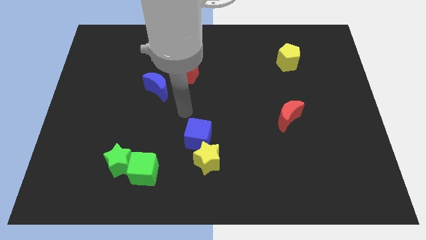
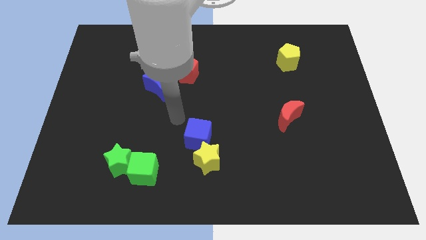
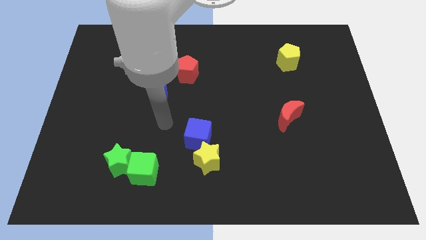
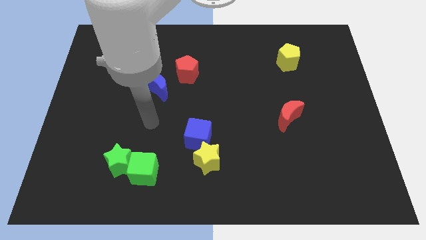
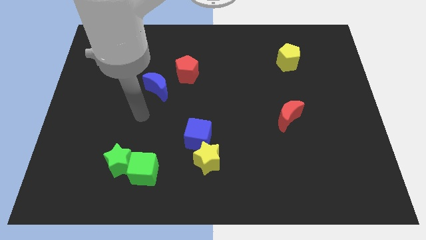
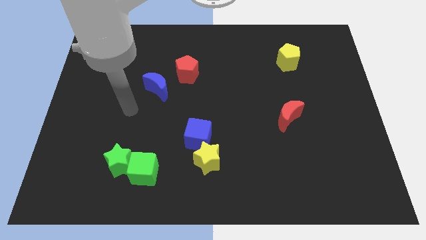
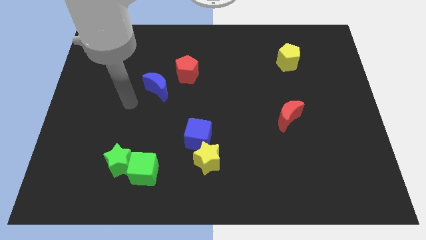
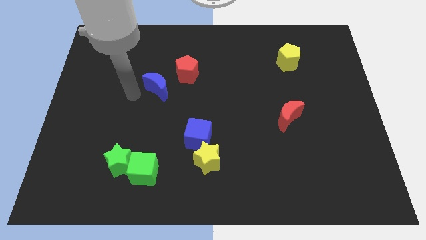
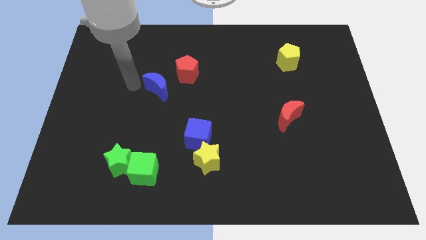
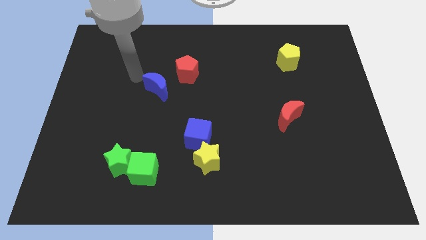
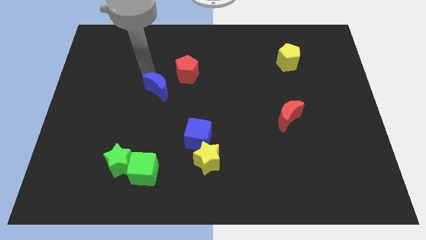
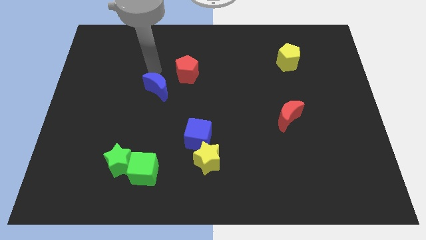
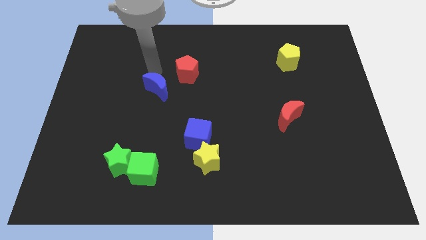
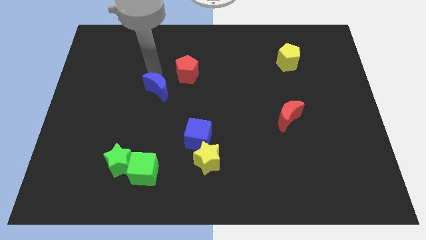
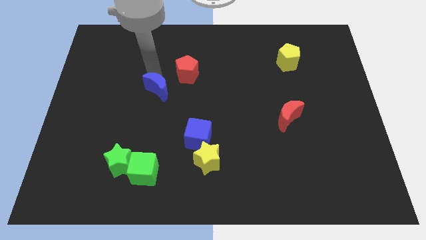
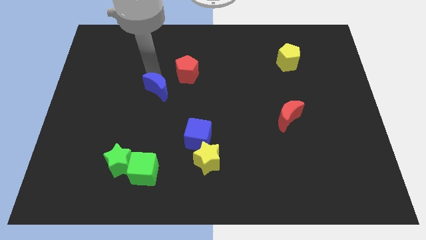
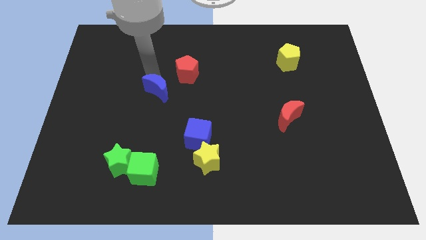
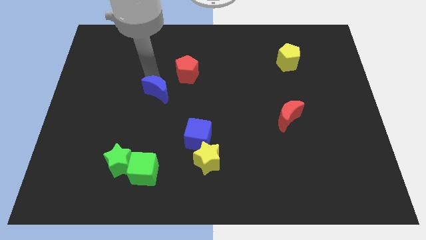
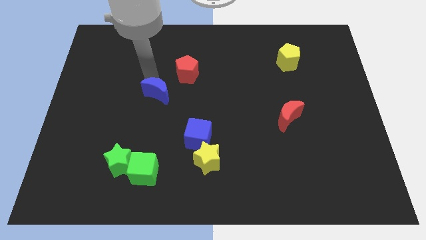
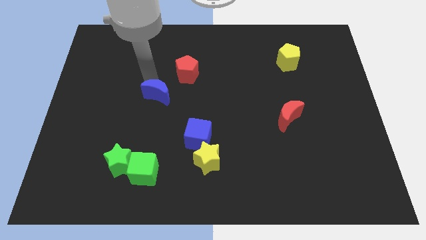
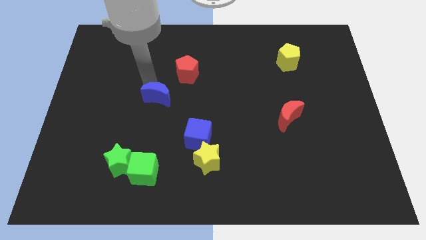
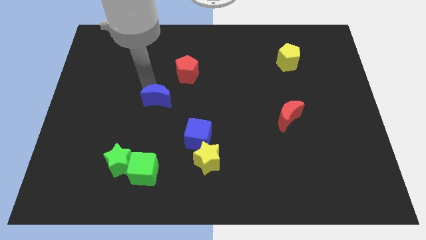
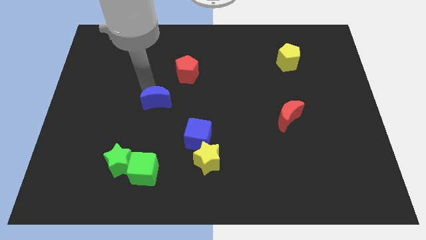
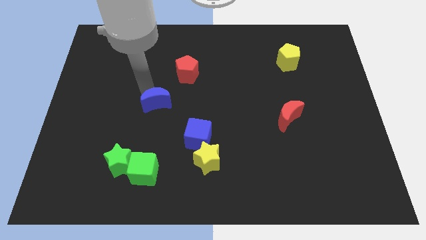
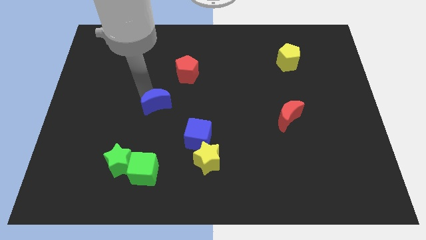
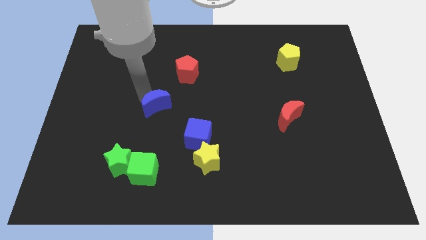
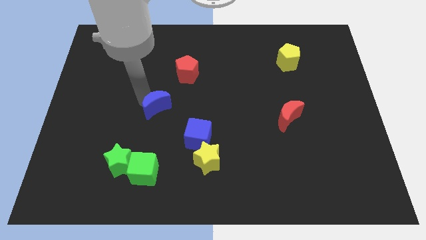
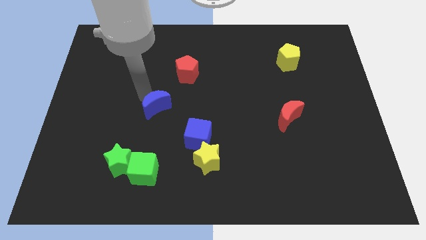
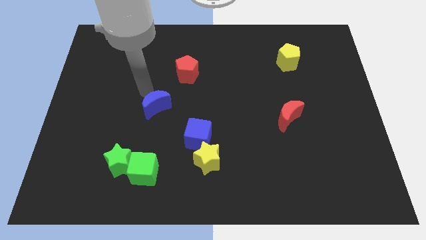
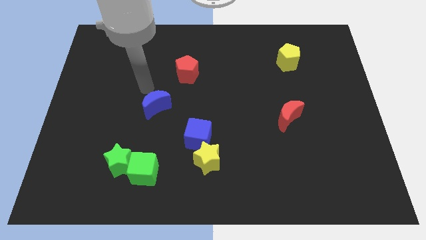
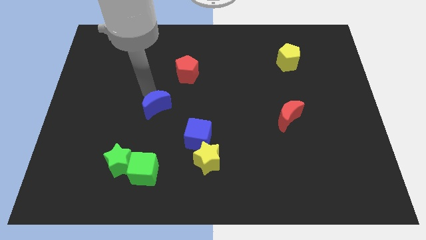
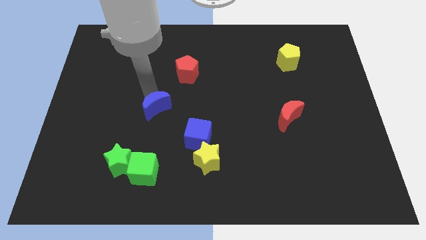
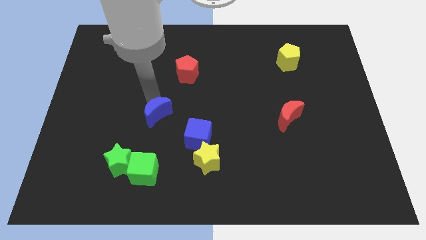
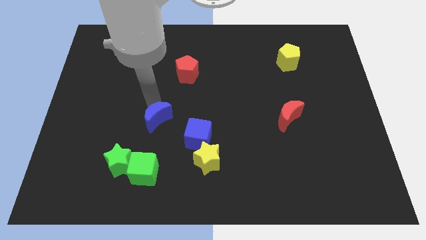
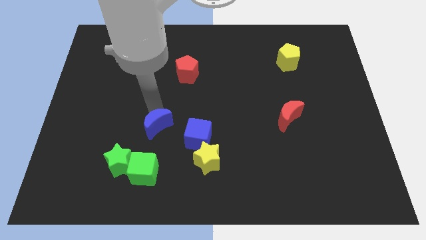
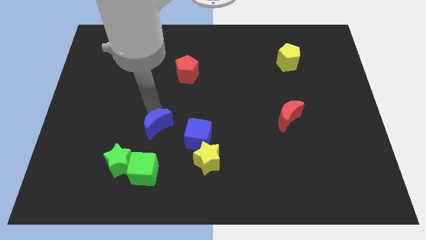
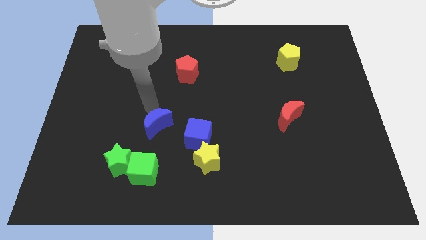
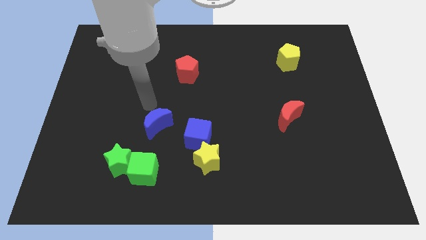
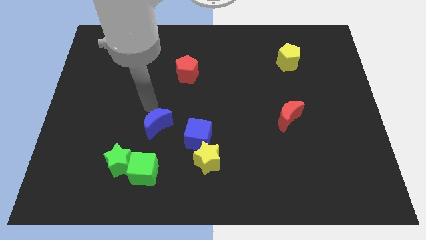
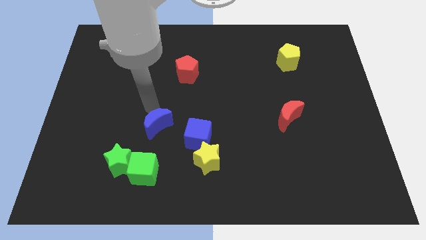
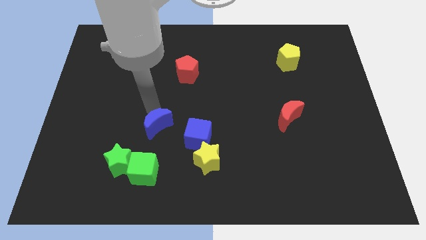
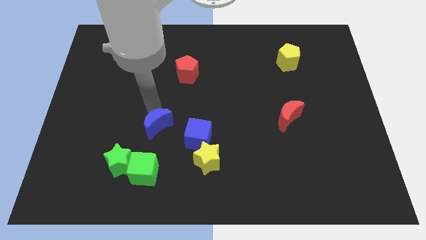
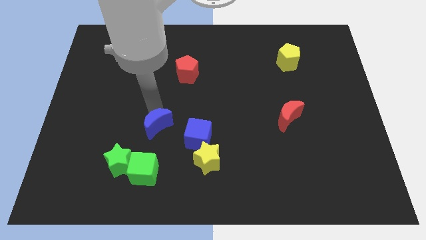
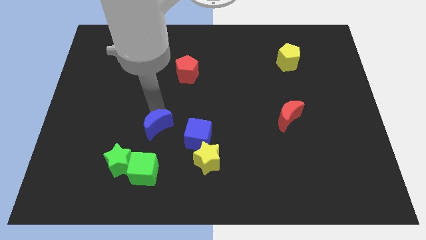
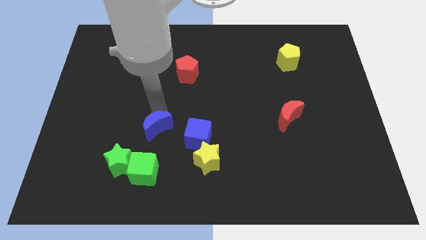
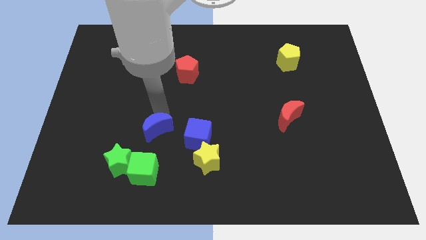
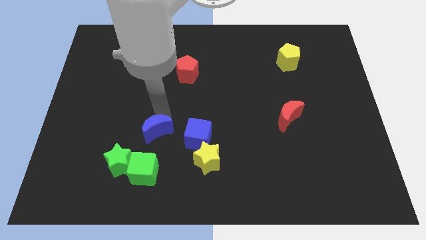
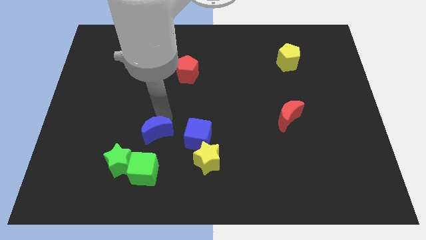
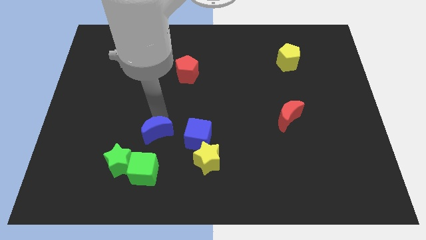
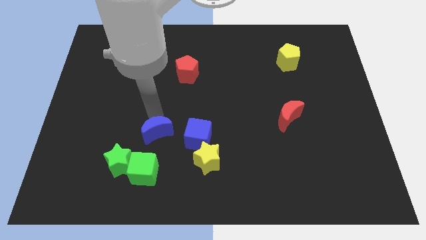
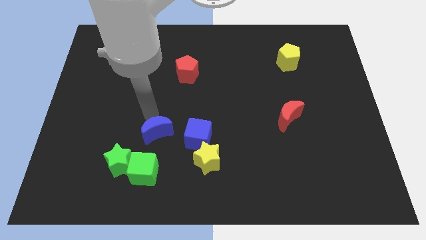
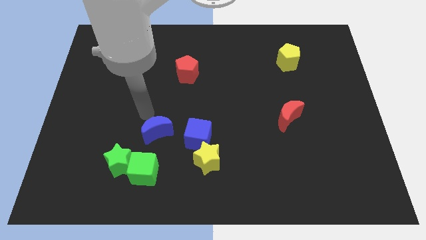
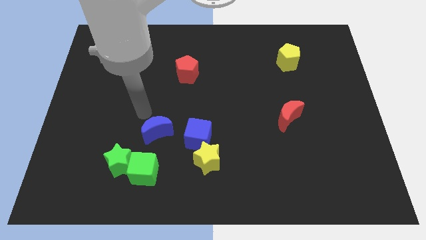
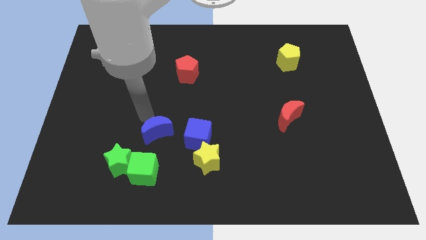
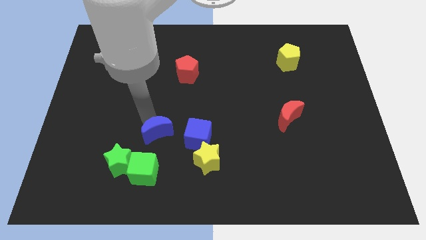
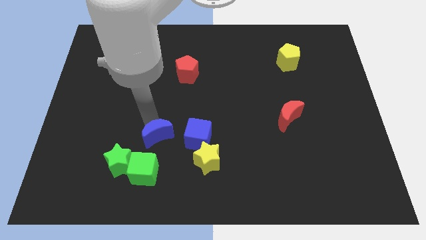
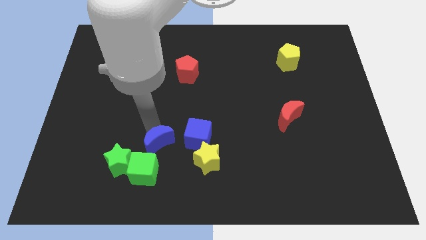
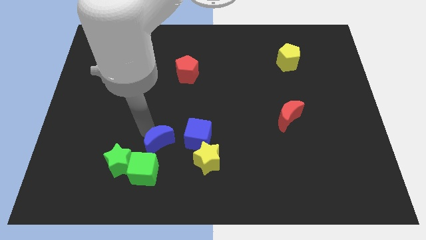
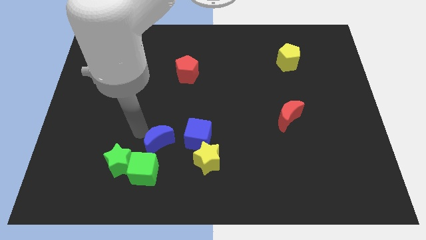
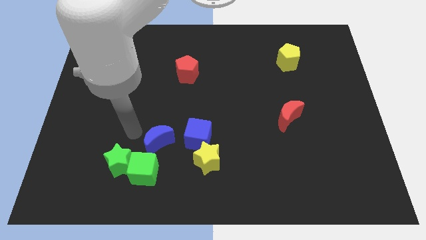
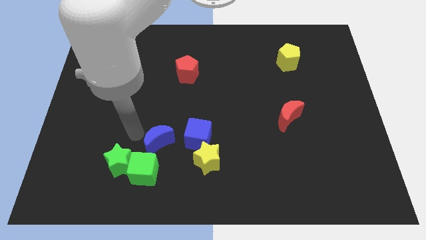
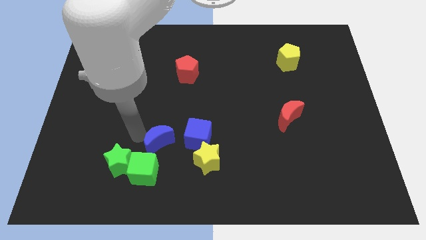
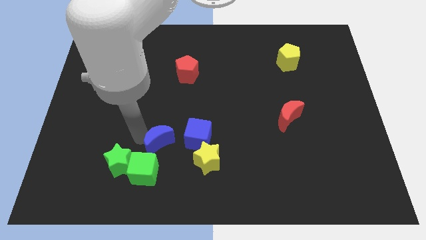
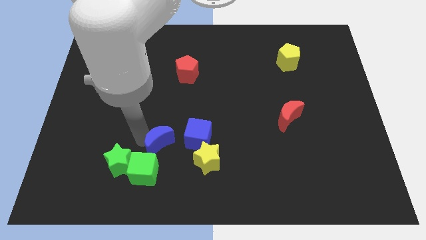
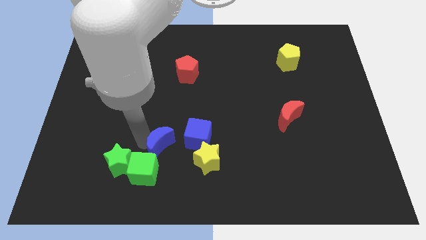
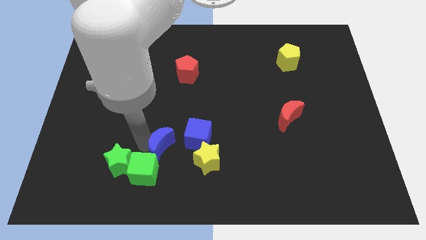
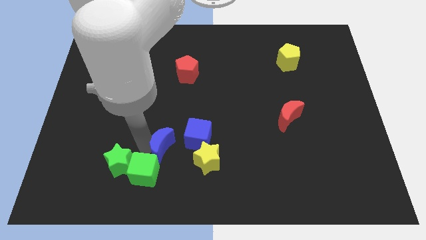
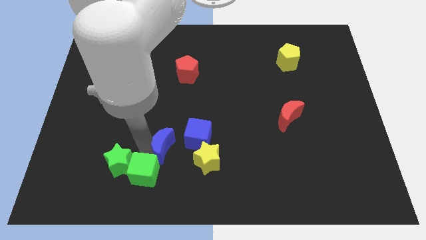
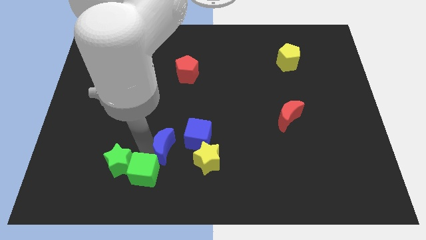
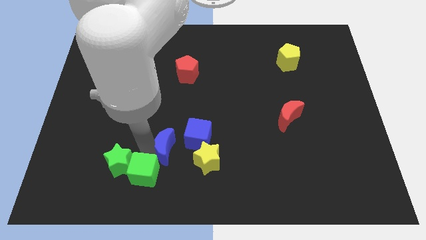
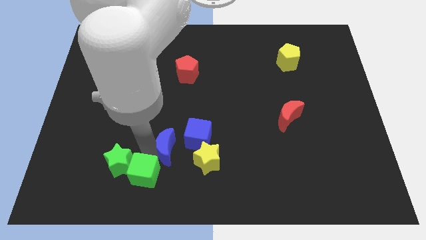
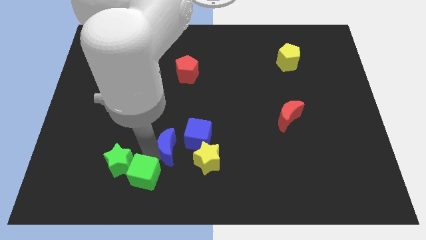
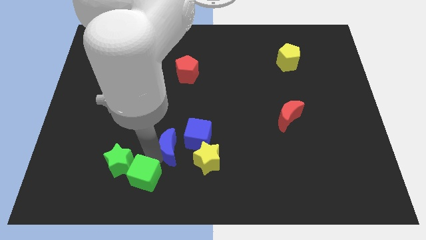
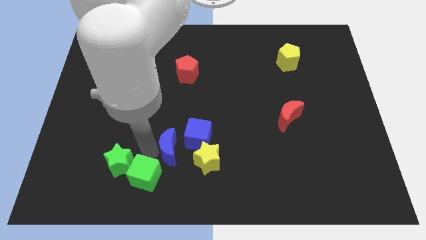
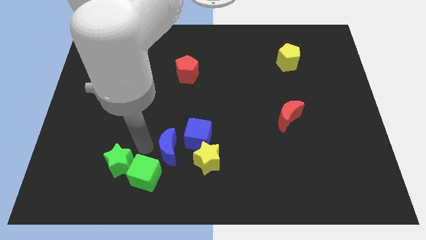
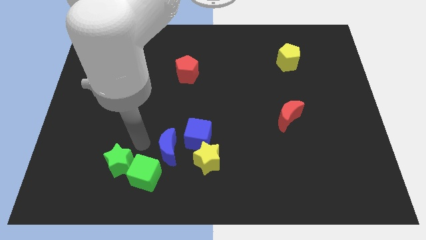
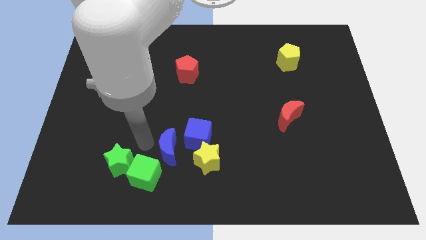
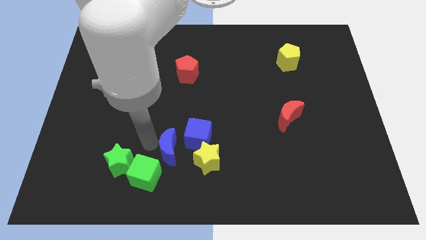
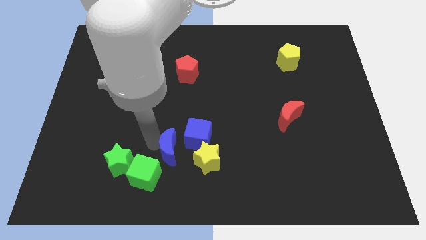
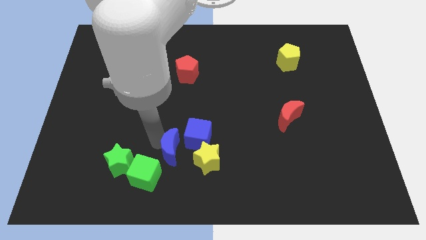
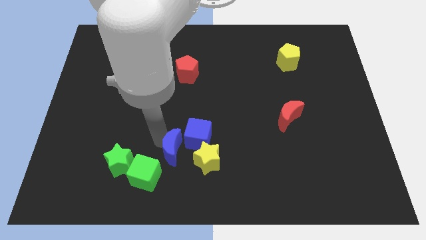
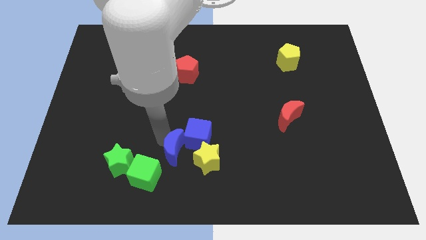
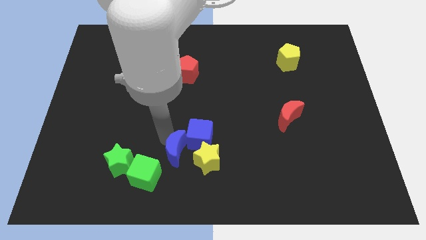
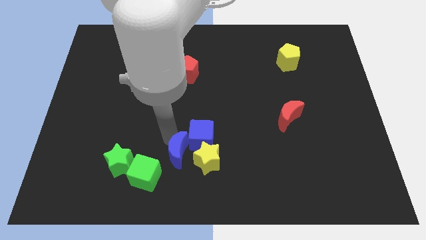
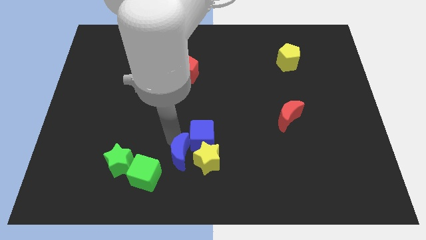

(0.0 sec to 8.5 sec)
move the blue moon to the yellow star

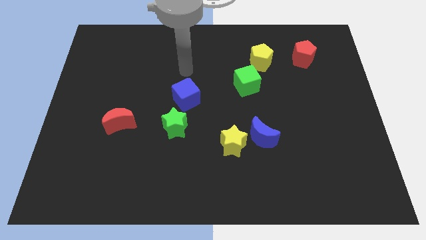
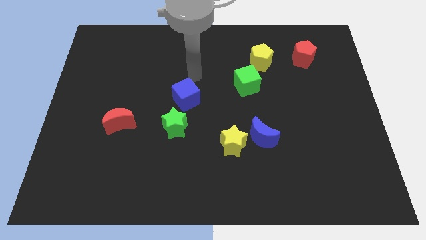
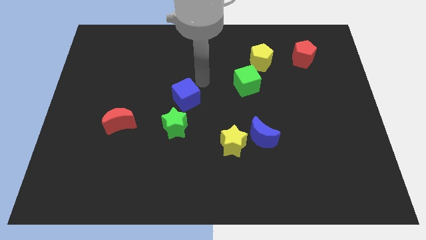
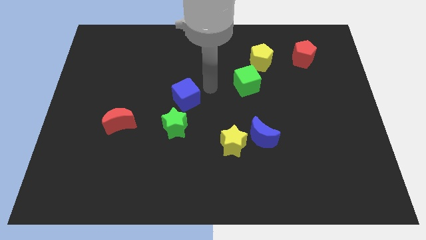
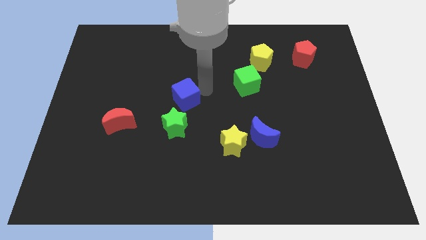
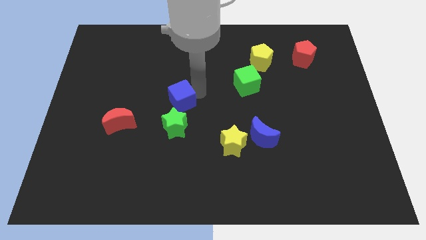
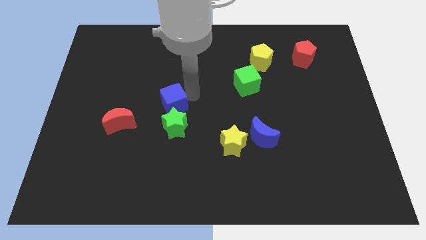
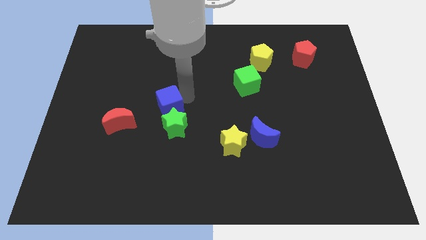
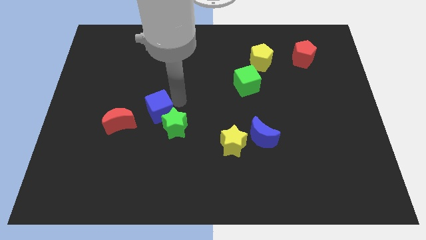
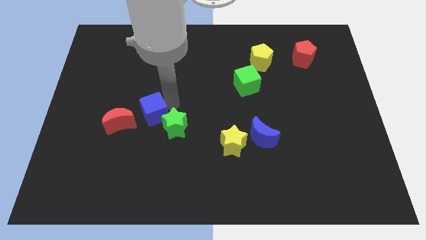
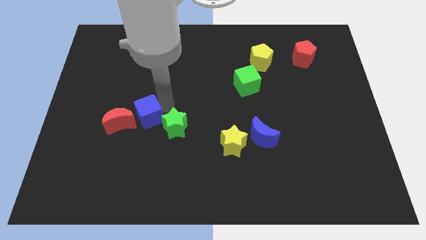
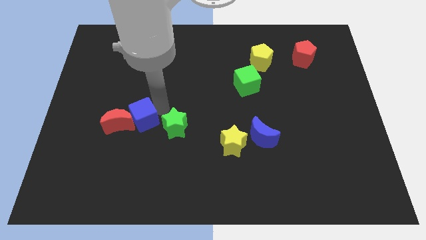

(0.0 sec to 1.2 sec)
put the blue cube close to the red moon
